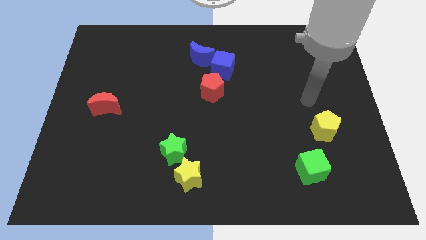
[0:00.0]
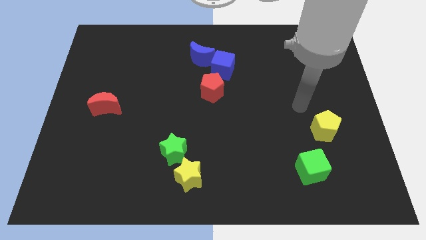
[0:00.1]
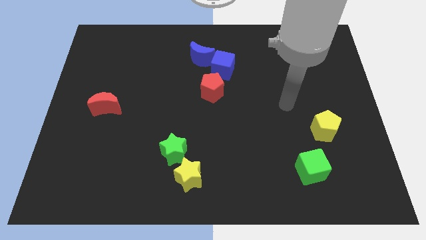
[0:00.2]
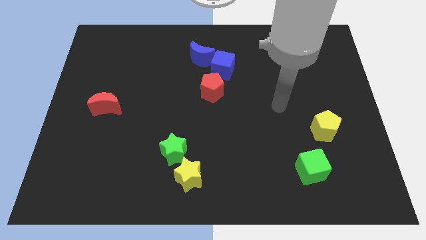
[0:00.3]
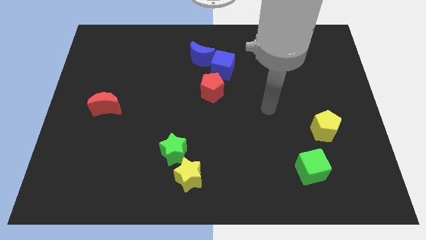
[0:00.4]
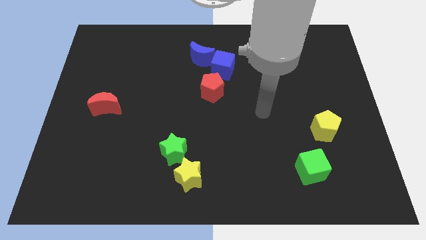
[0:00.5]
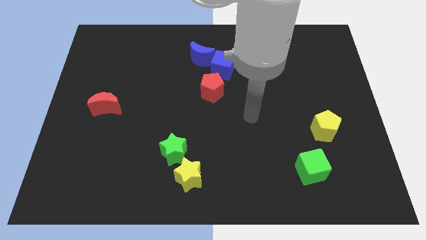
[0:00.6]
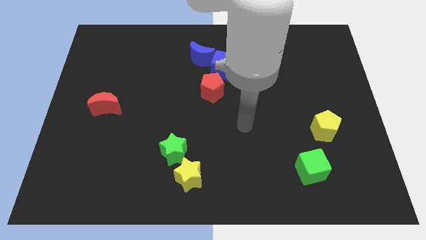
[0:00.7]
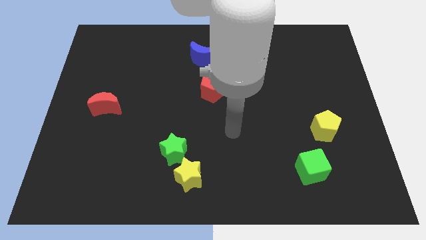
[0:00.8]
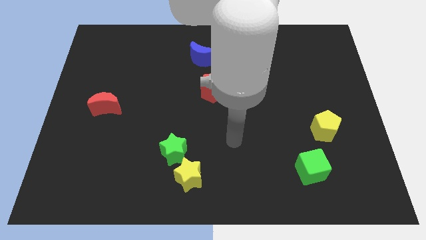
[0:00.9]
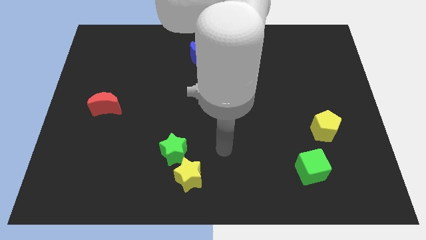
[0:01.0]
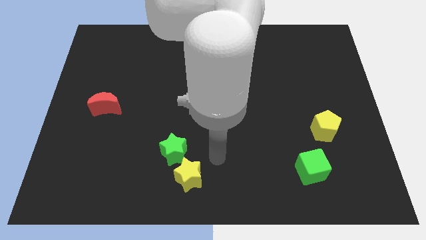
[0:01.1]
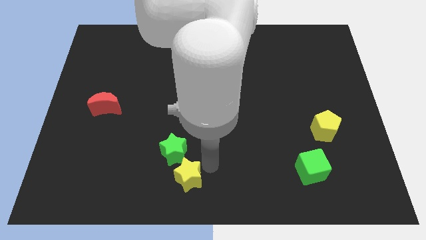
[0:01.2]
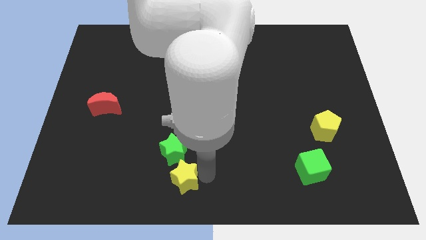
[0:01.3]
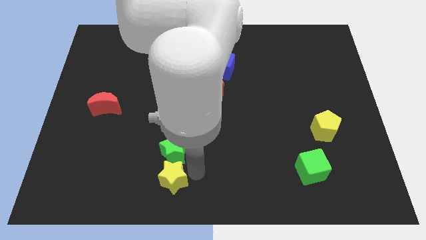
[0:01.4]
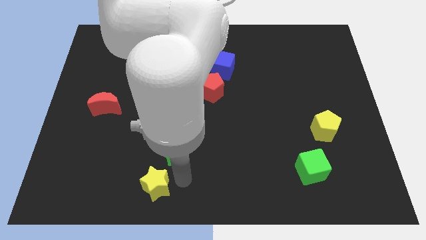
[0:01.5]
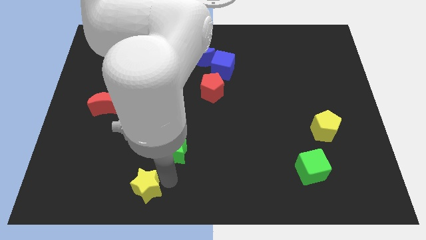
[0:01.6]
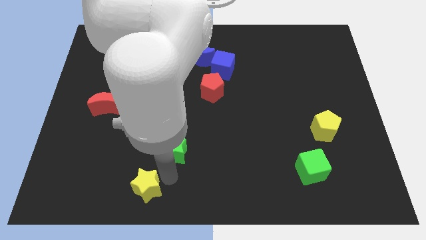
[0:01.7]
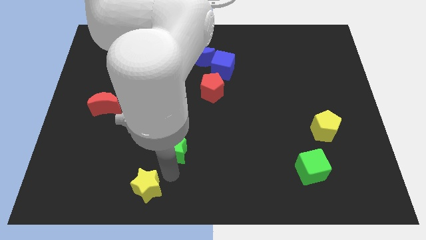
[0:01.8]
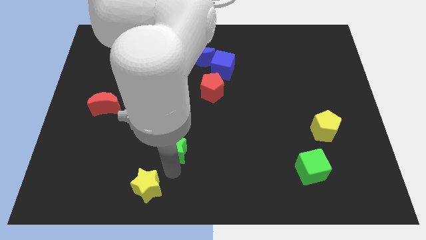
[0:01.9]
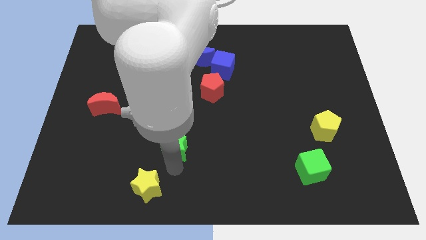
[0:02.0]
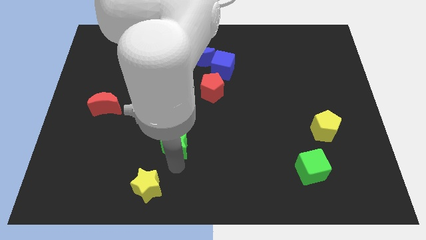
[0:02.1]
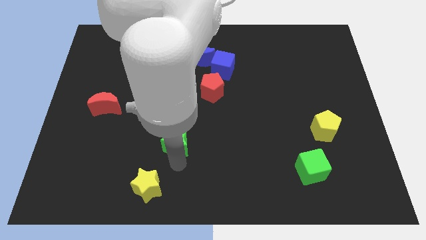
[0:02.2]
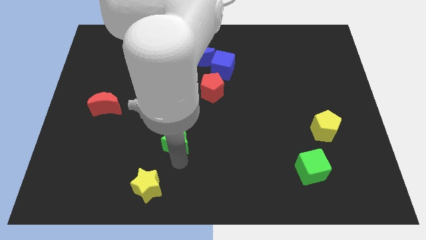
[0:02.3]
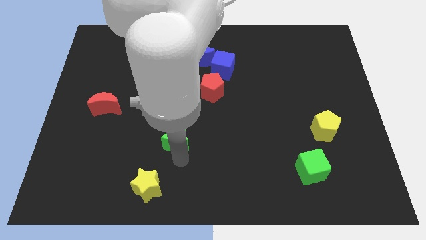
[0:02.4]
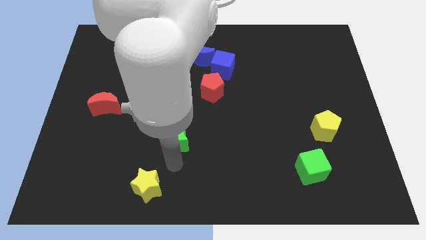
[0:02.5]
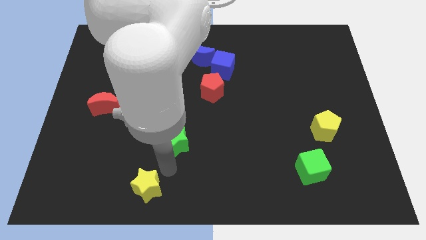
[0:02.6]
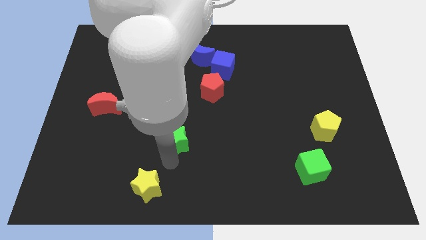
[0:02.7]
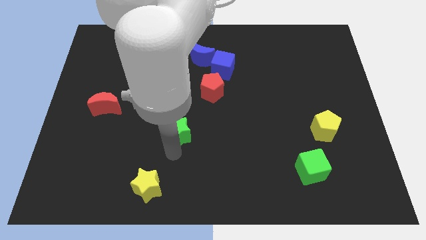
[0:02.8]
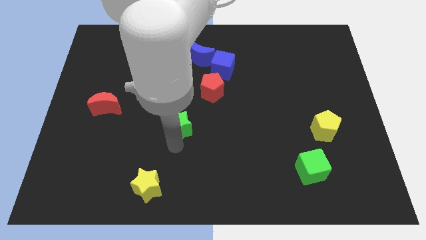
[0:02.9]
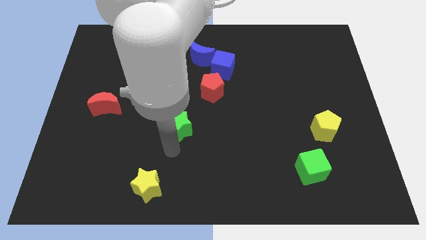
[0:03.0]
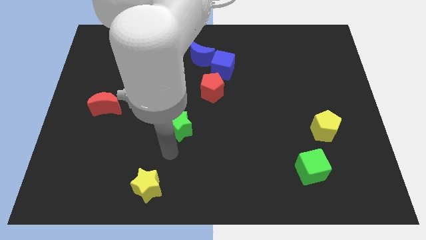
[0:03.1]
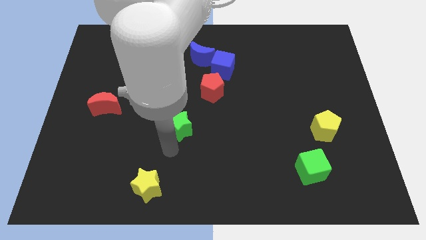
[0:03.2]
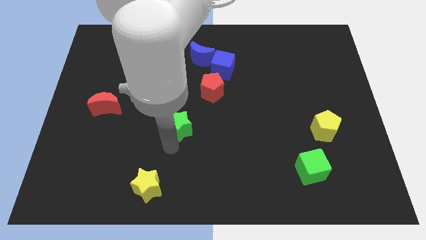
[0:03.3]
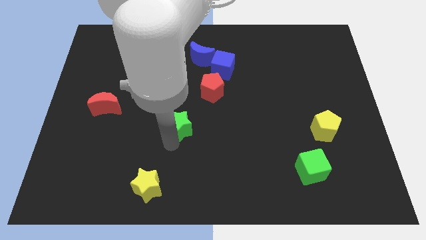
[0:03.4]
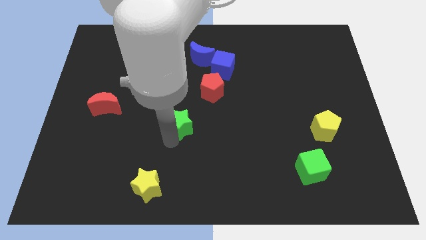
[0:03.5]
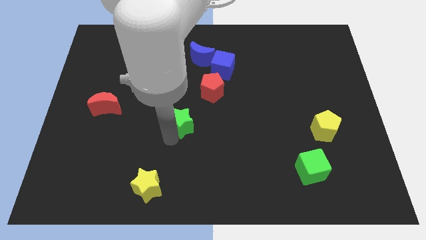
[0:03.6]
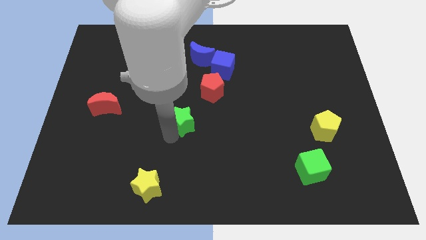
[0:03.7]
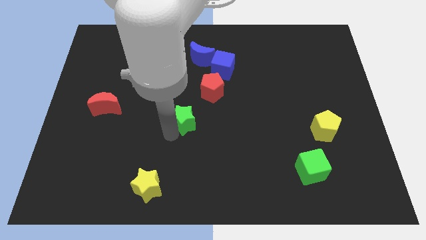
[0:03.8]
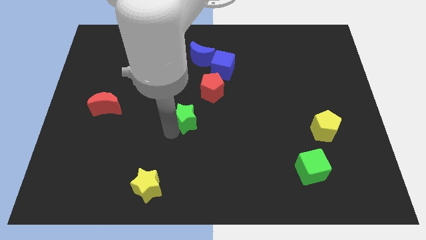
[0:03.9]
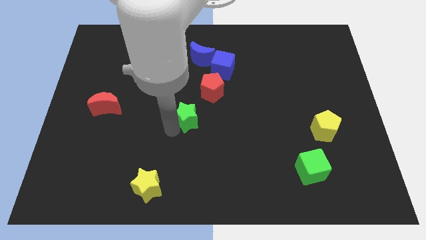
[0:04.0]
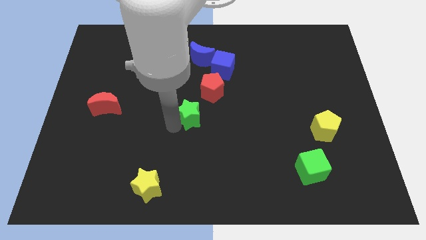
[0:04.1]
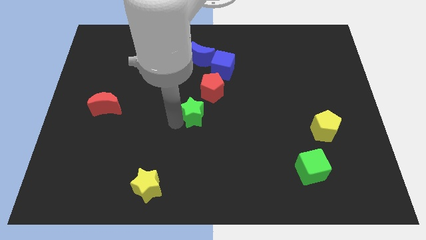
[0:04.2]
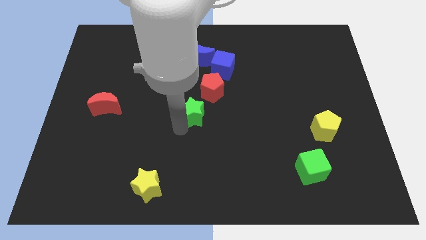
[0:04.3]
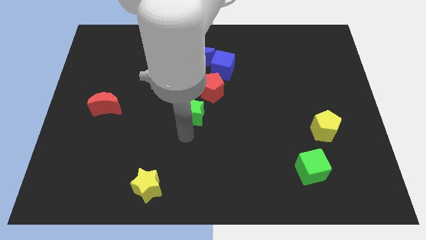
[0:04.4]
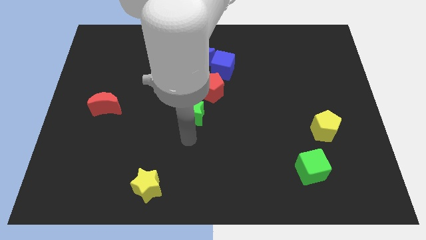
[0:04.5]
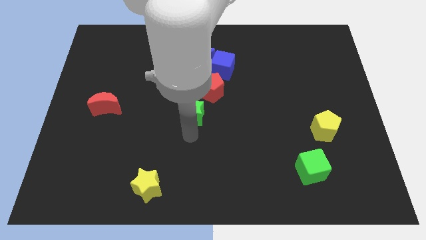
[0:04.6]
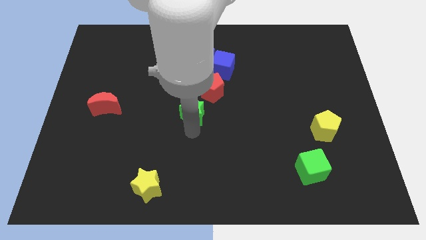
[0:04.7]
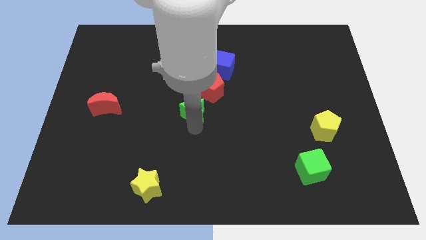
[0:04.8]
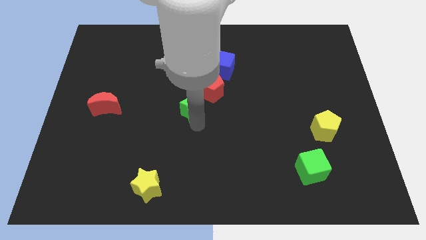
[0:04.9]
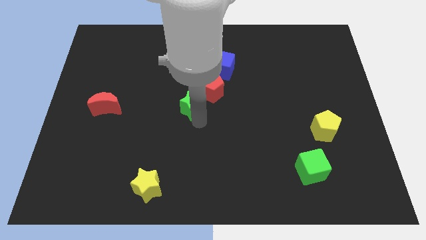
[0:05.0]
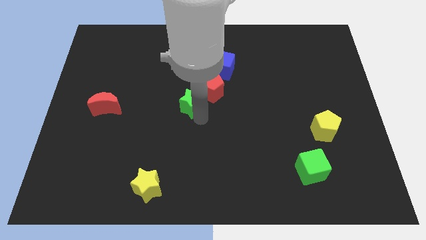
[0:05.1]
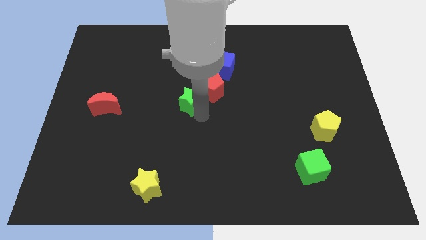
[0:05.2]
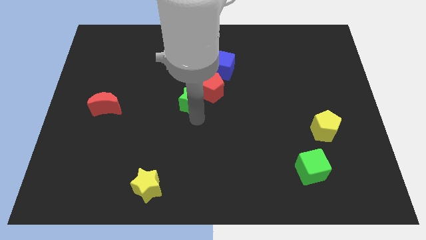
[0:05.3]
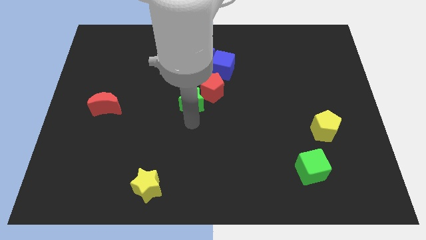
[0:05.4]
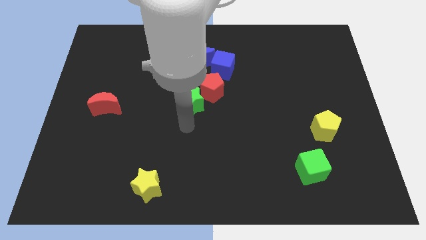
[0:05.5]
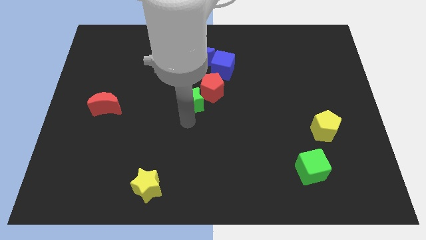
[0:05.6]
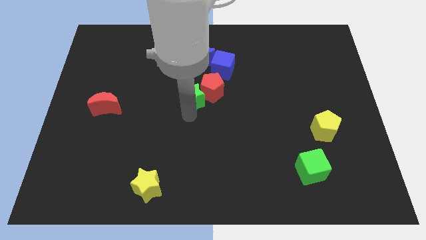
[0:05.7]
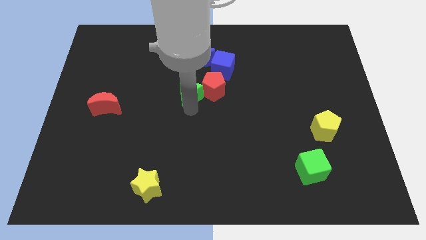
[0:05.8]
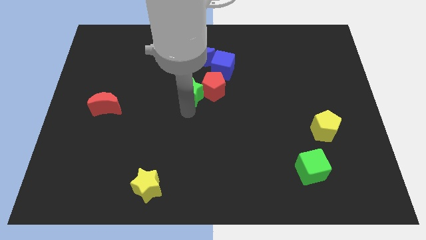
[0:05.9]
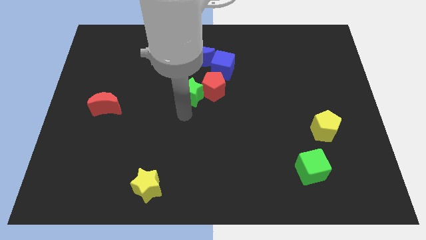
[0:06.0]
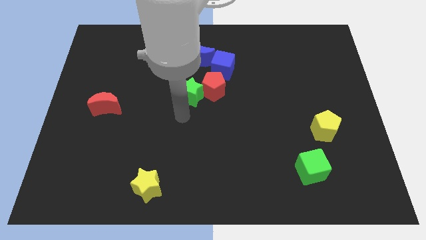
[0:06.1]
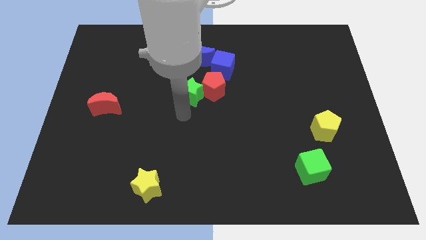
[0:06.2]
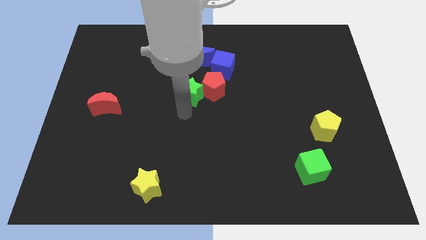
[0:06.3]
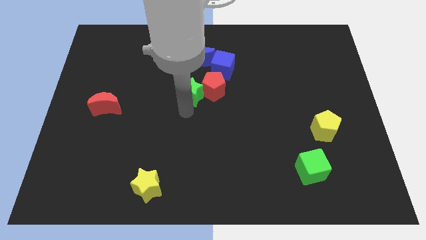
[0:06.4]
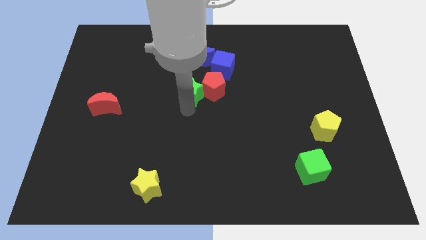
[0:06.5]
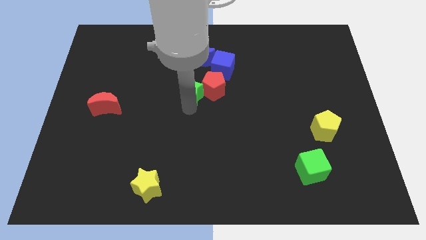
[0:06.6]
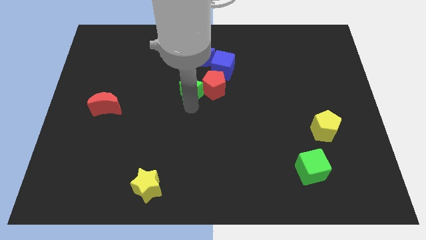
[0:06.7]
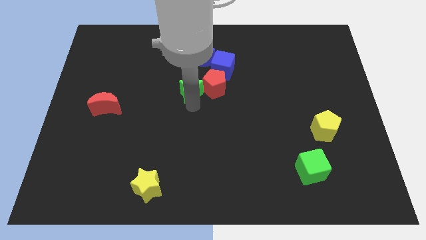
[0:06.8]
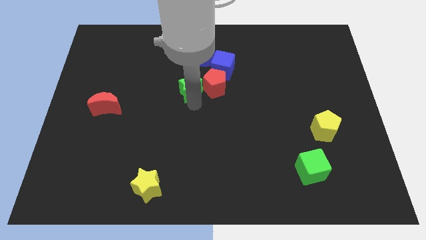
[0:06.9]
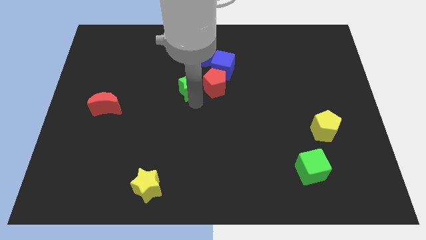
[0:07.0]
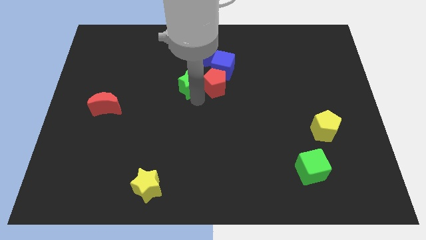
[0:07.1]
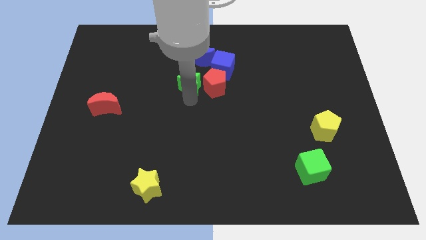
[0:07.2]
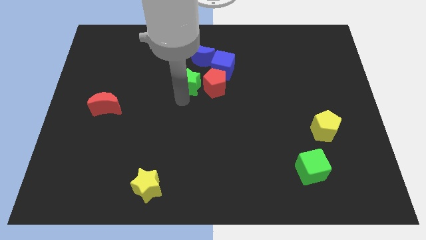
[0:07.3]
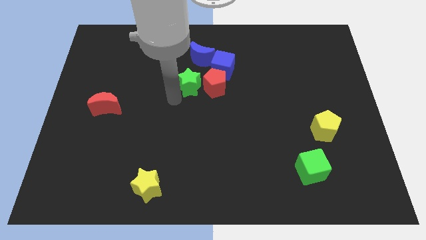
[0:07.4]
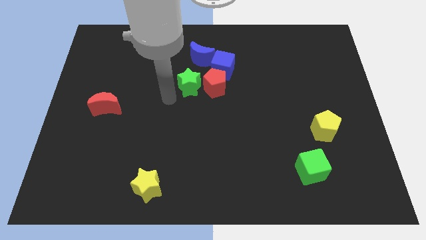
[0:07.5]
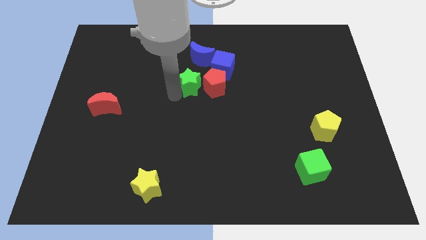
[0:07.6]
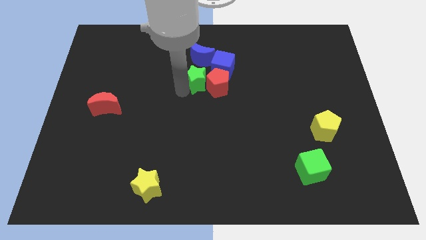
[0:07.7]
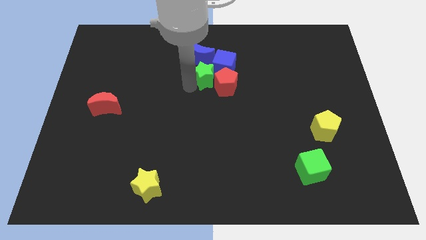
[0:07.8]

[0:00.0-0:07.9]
push the green star next to the blue cube
